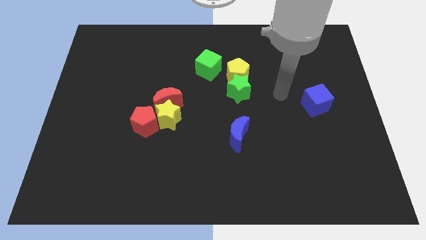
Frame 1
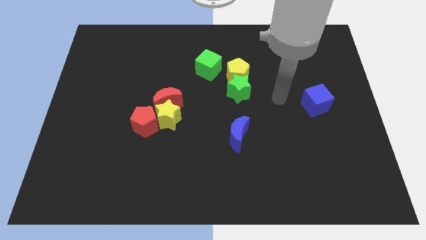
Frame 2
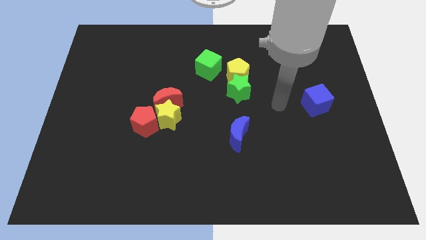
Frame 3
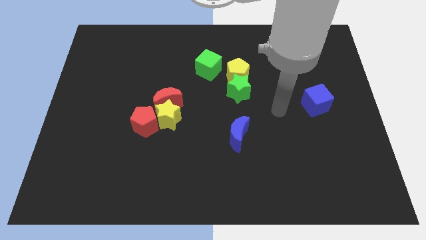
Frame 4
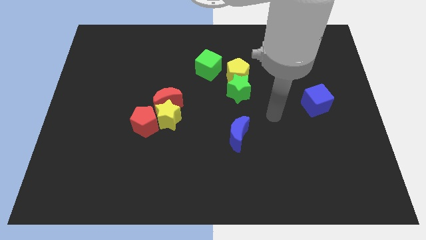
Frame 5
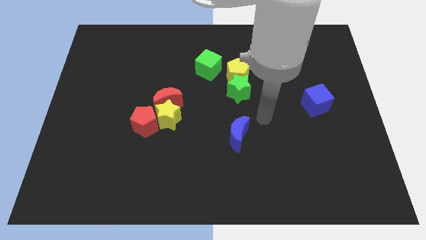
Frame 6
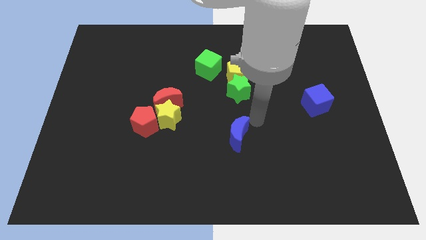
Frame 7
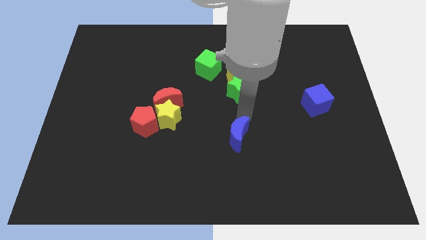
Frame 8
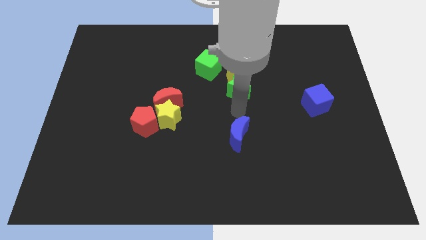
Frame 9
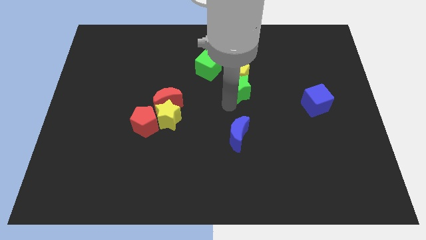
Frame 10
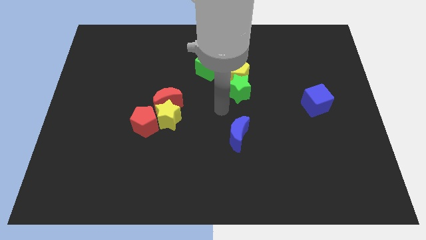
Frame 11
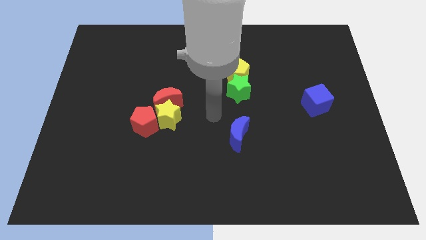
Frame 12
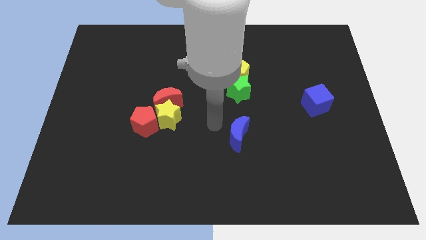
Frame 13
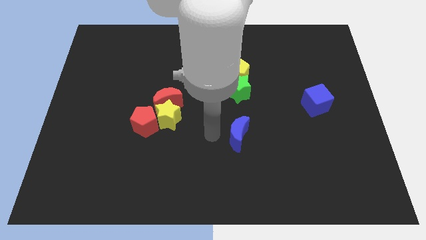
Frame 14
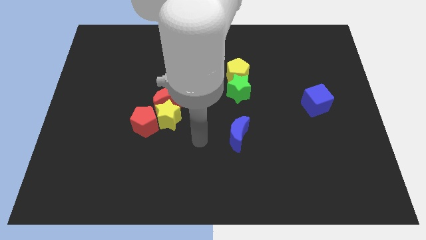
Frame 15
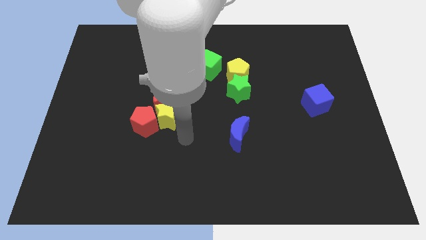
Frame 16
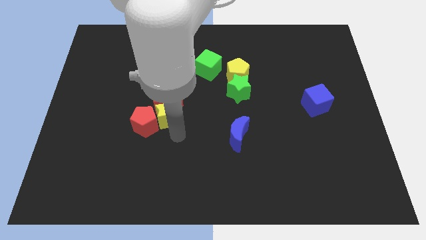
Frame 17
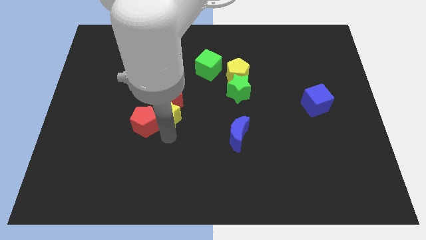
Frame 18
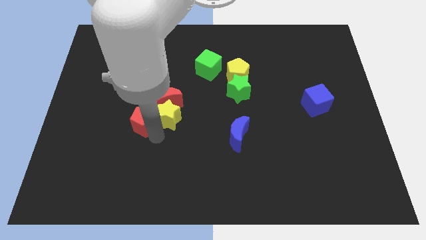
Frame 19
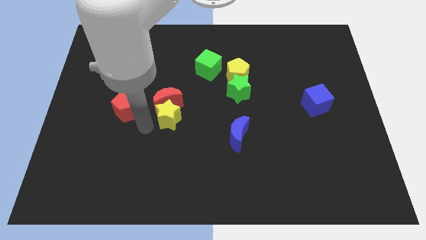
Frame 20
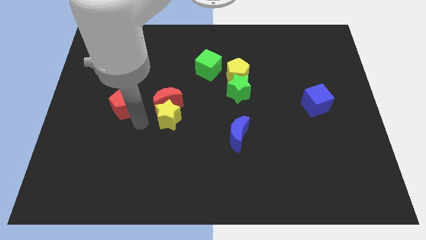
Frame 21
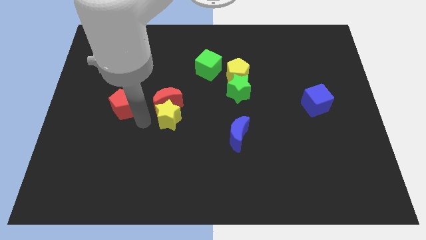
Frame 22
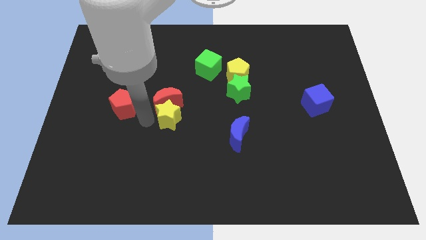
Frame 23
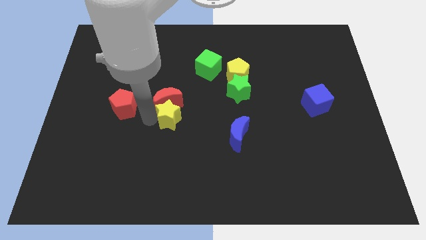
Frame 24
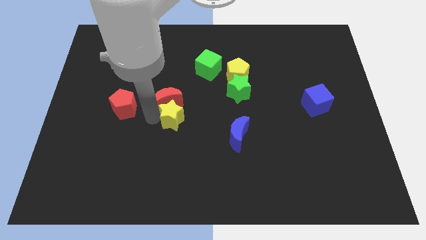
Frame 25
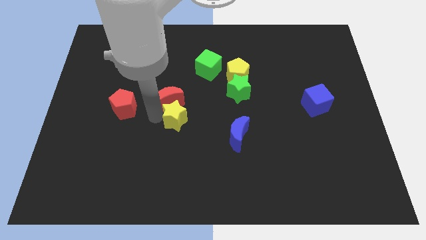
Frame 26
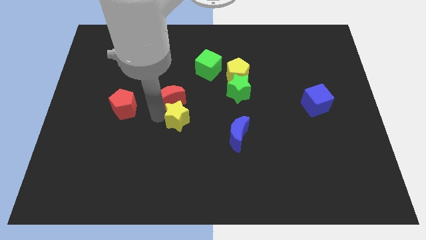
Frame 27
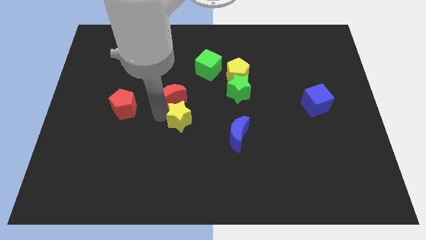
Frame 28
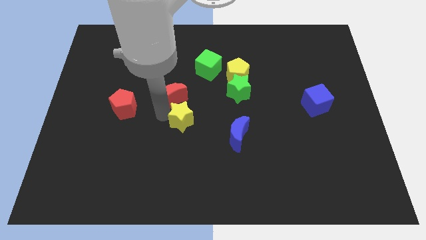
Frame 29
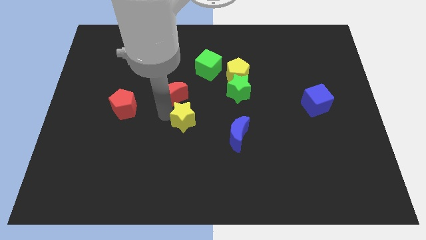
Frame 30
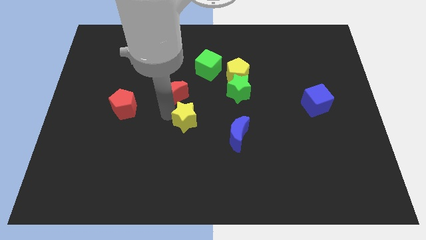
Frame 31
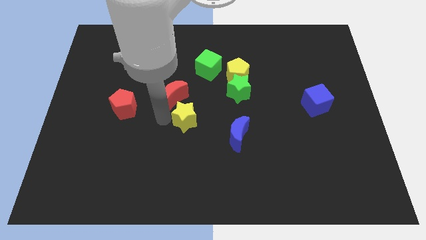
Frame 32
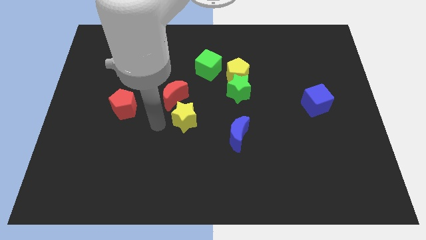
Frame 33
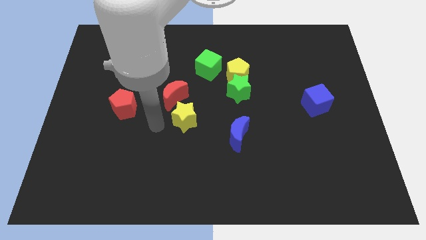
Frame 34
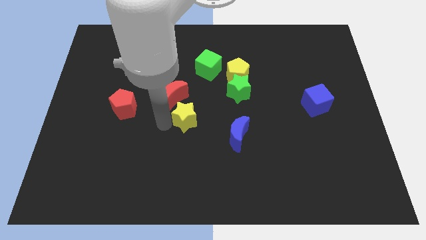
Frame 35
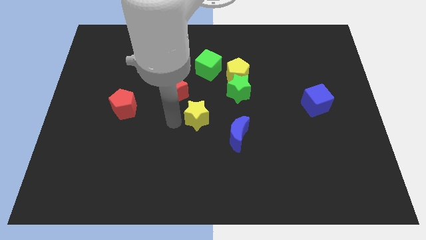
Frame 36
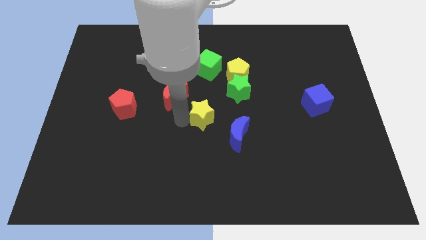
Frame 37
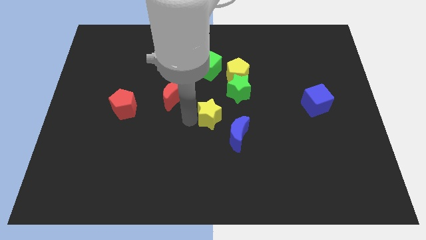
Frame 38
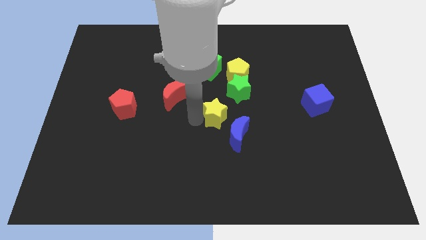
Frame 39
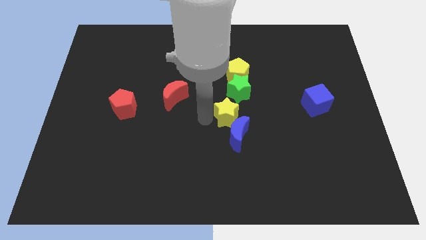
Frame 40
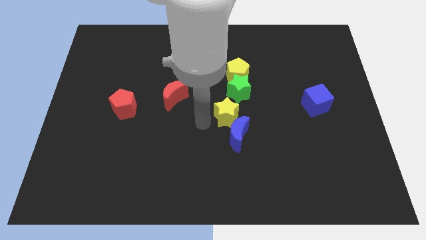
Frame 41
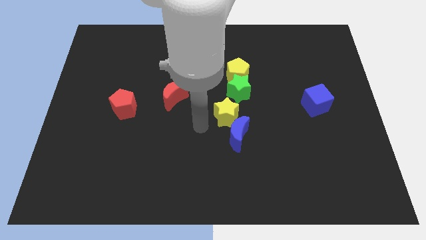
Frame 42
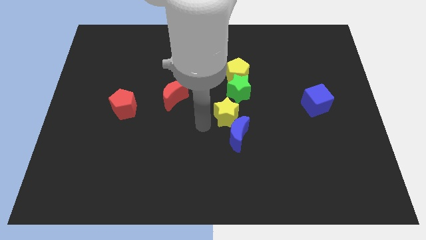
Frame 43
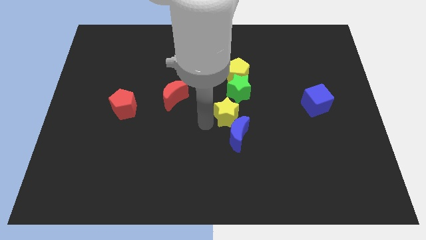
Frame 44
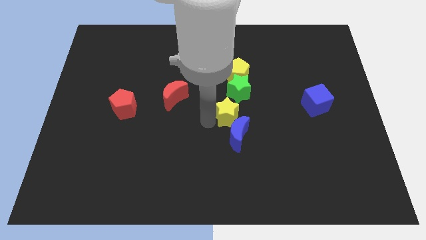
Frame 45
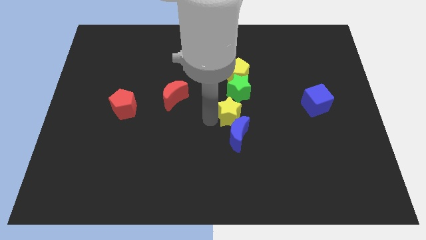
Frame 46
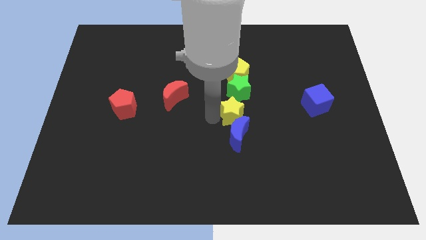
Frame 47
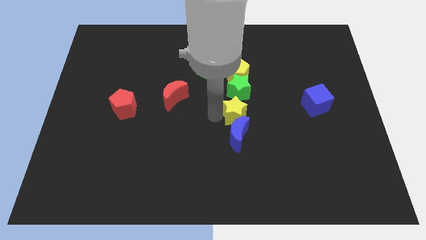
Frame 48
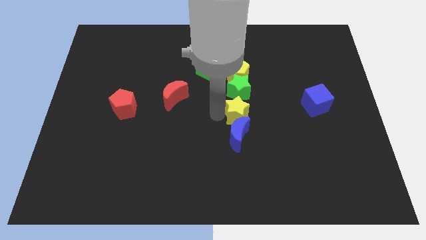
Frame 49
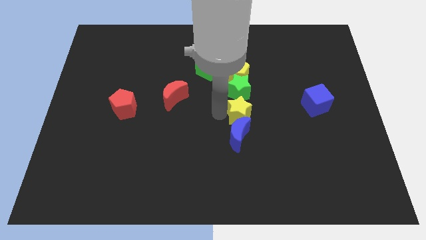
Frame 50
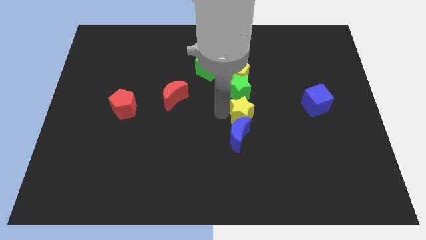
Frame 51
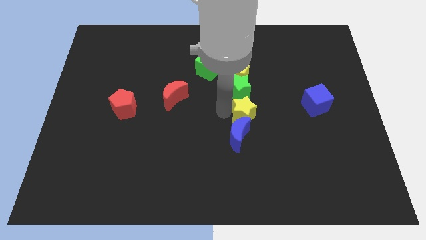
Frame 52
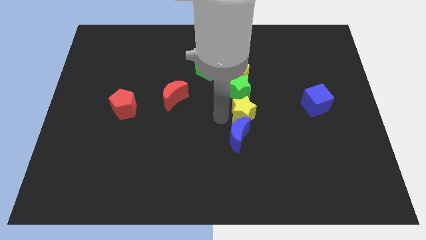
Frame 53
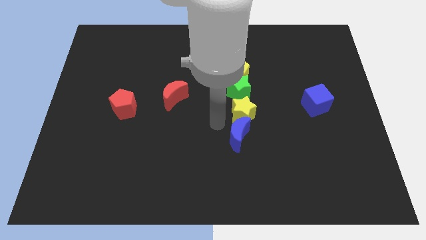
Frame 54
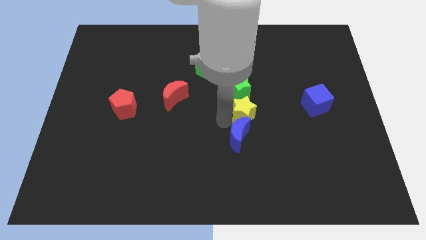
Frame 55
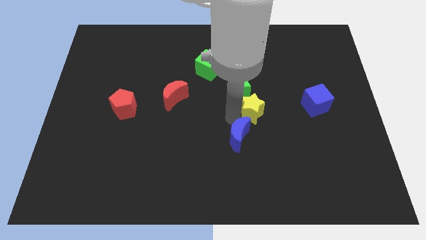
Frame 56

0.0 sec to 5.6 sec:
put the yellow star to the left of the blue cube

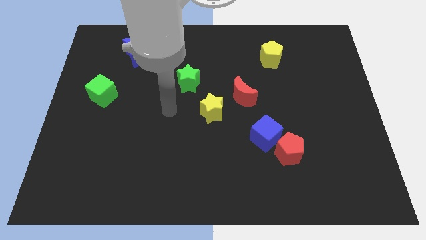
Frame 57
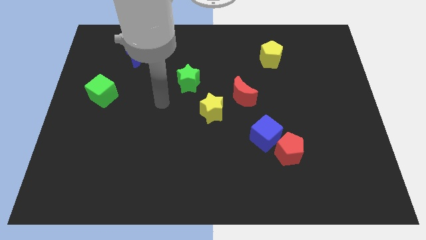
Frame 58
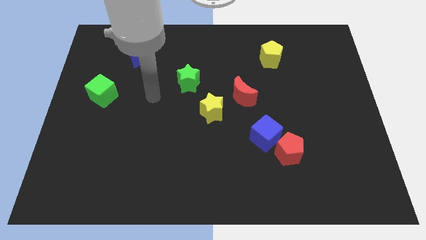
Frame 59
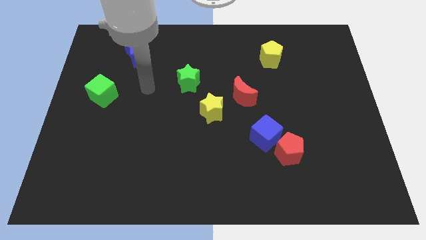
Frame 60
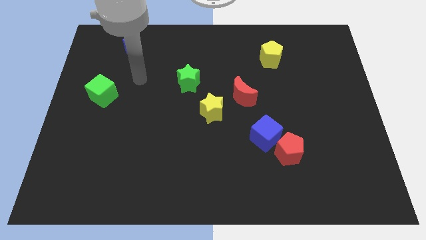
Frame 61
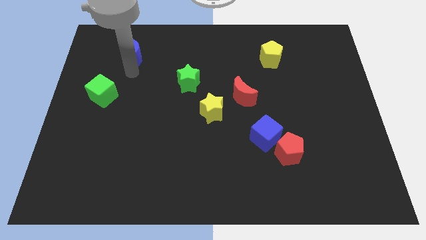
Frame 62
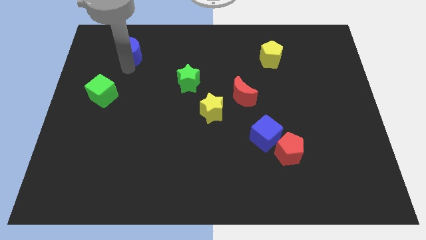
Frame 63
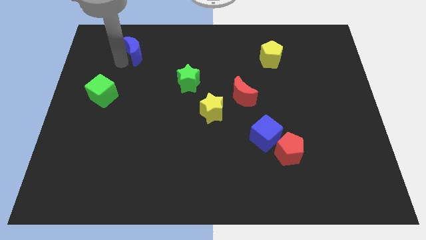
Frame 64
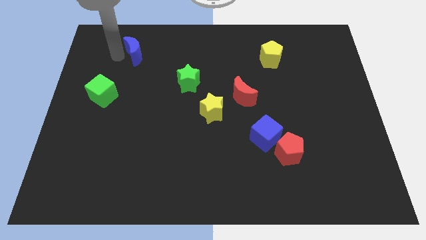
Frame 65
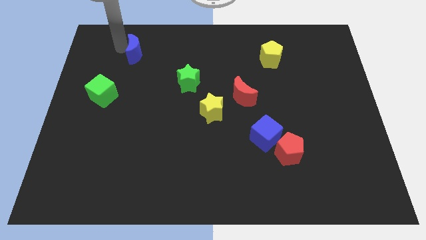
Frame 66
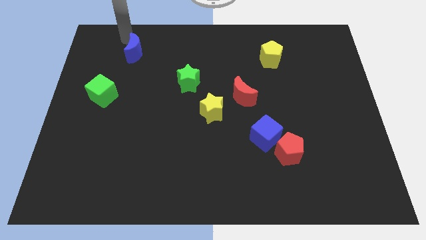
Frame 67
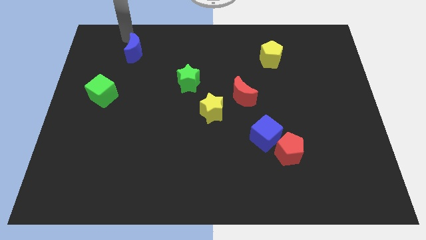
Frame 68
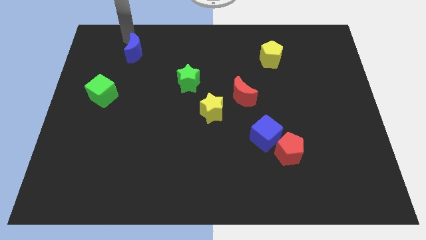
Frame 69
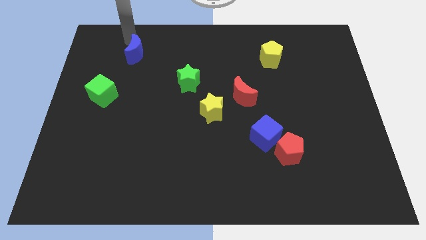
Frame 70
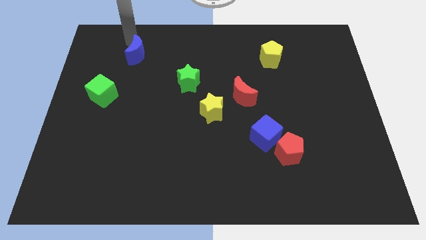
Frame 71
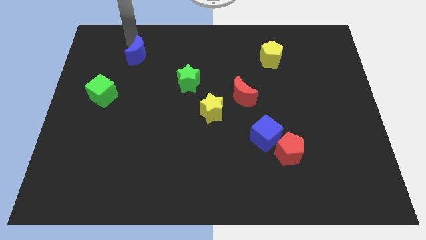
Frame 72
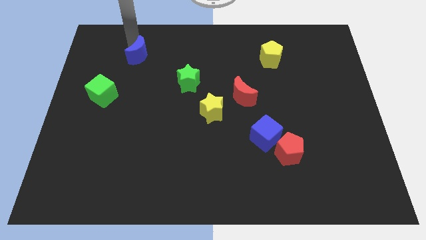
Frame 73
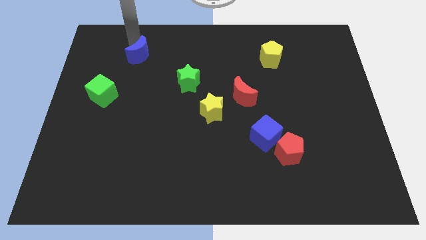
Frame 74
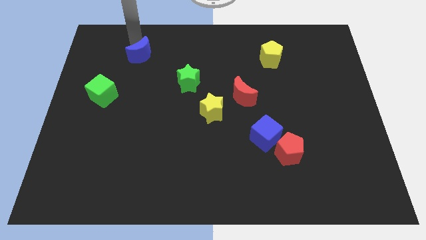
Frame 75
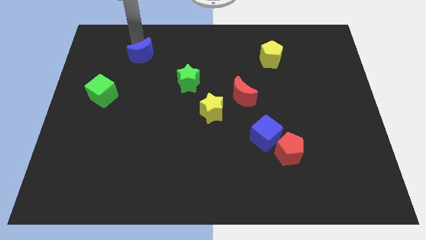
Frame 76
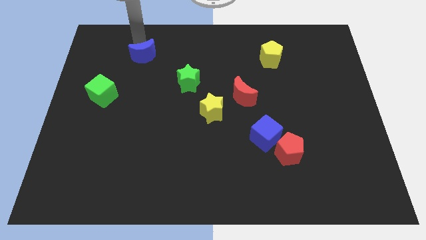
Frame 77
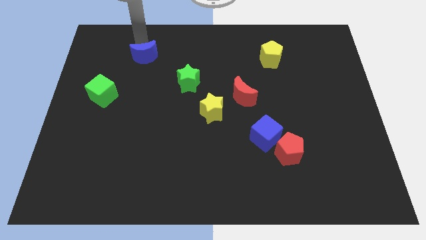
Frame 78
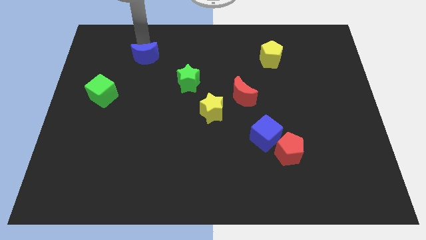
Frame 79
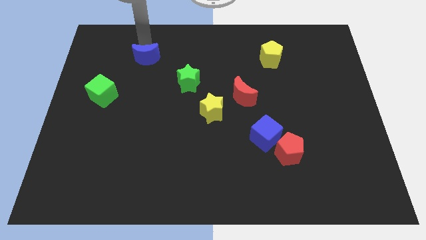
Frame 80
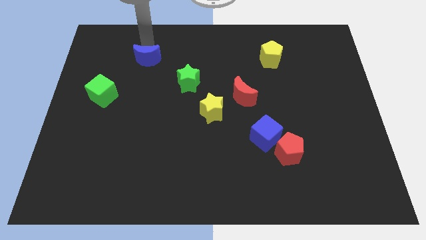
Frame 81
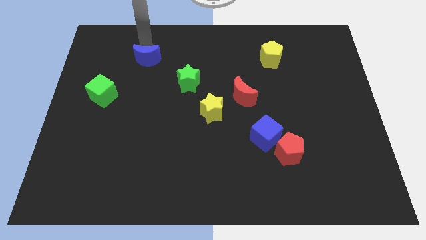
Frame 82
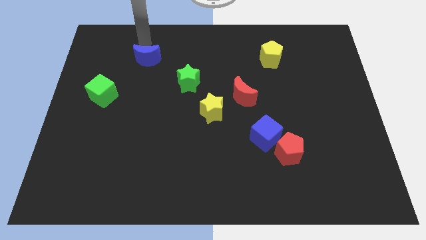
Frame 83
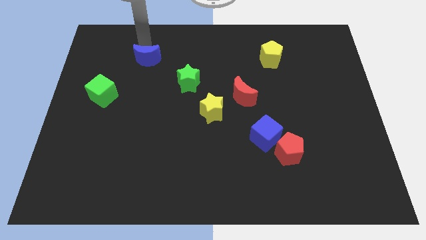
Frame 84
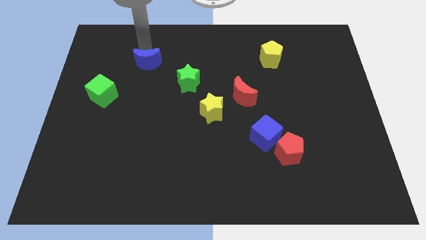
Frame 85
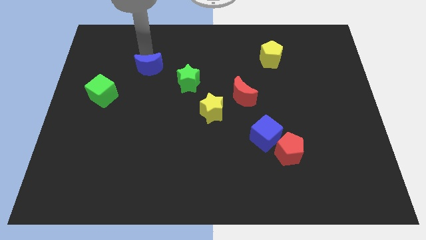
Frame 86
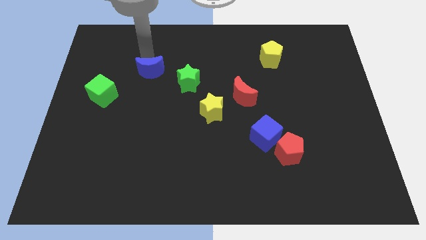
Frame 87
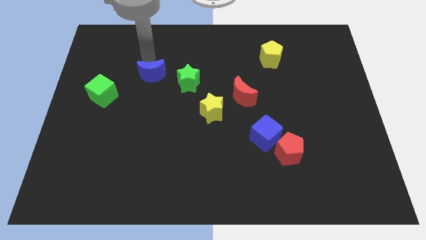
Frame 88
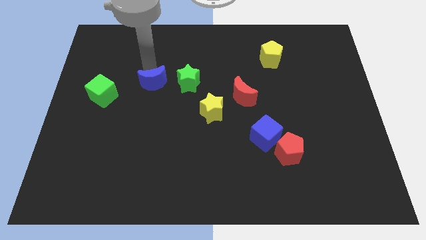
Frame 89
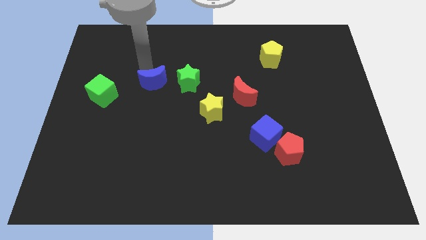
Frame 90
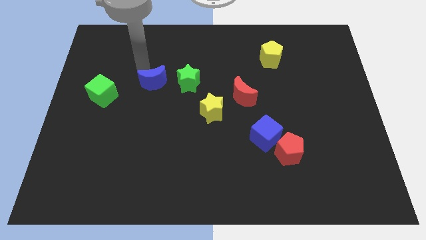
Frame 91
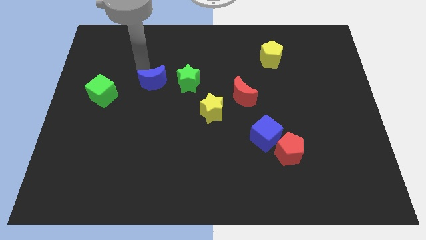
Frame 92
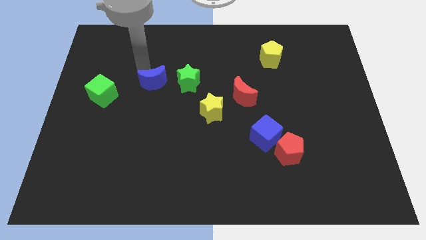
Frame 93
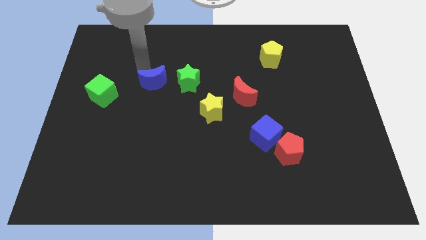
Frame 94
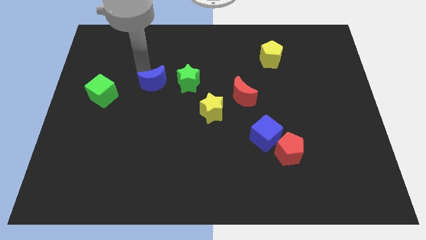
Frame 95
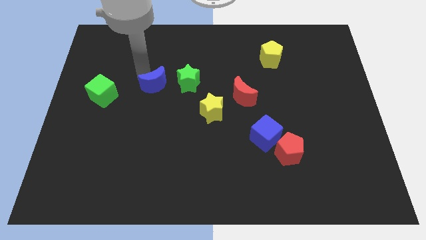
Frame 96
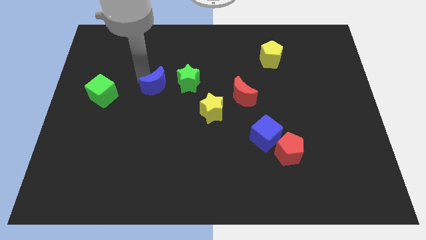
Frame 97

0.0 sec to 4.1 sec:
push the blue moon to the bottom left side of the green star
